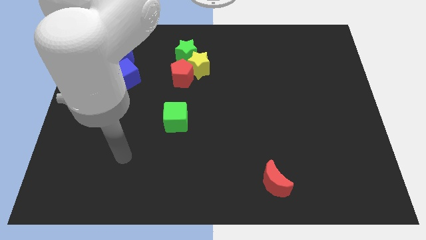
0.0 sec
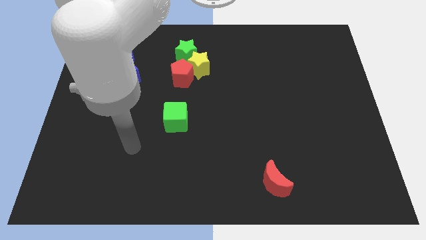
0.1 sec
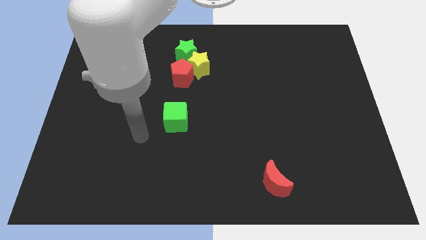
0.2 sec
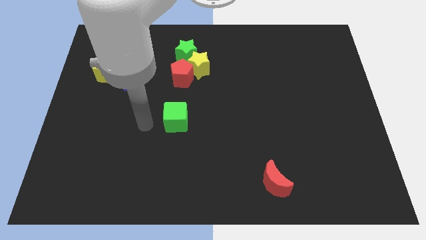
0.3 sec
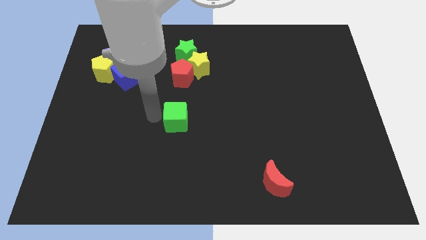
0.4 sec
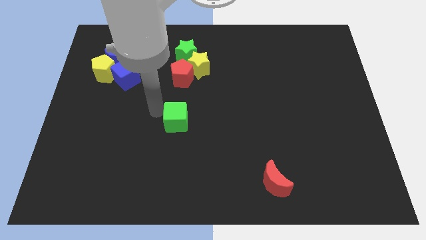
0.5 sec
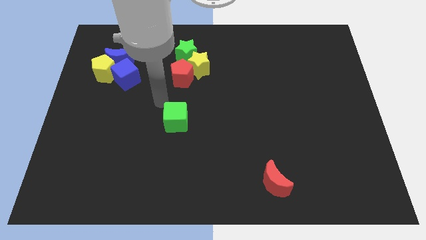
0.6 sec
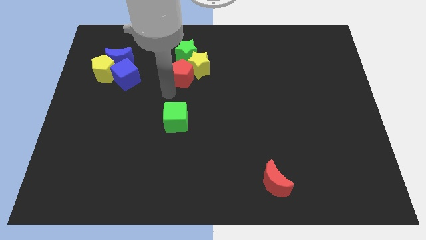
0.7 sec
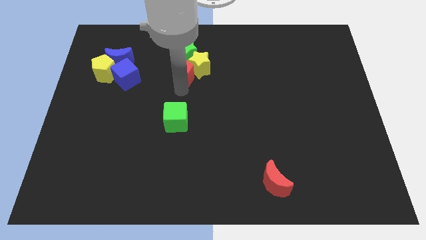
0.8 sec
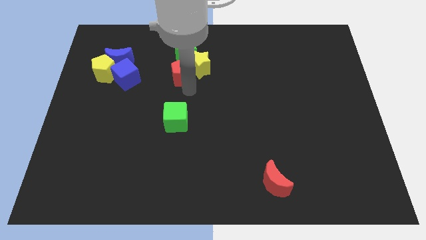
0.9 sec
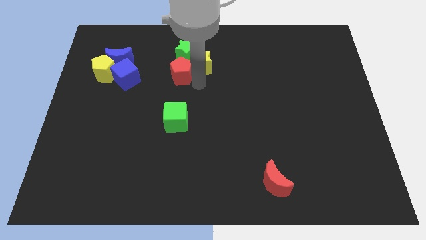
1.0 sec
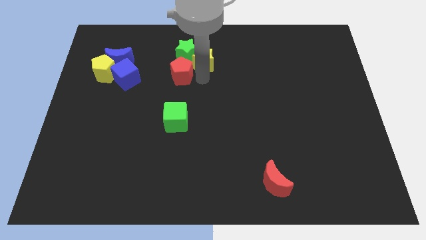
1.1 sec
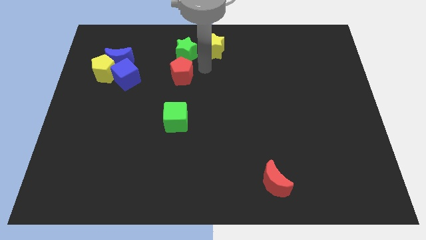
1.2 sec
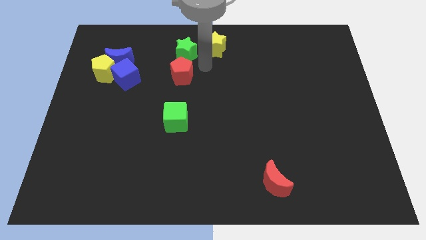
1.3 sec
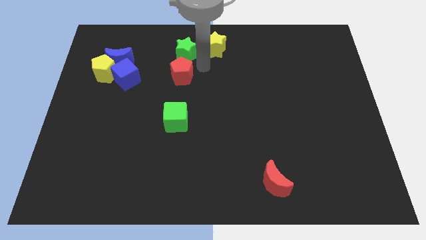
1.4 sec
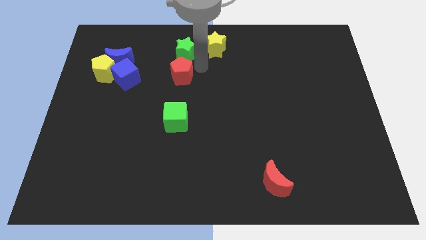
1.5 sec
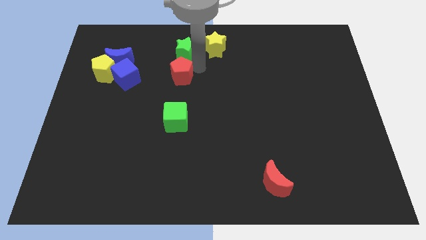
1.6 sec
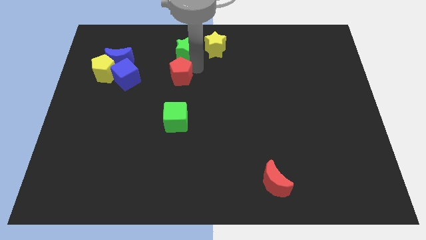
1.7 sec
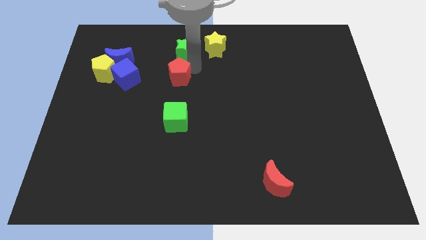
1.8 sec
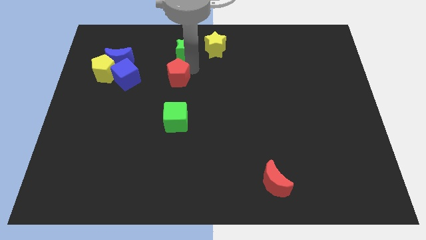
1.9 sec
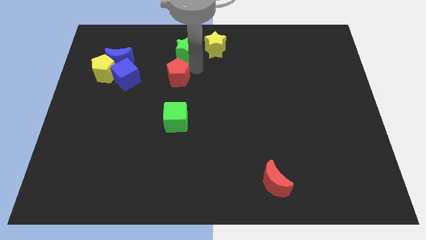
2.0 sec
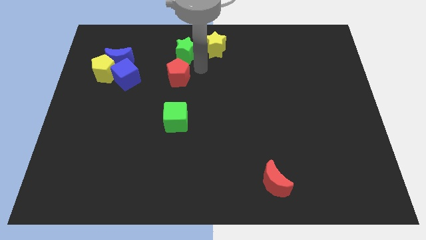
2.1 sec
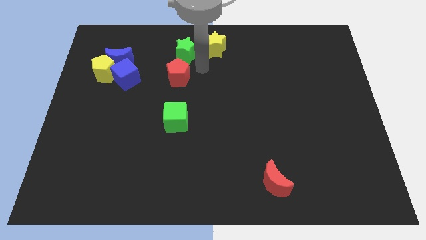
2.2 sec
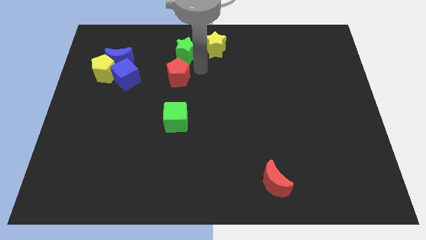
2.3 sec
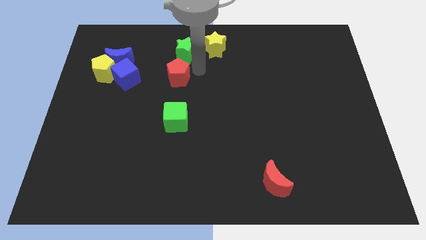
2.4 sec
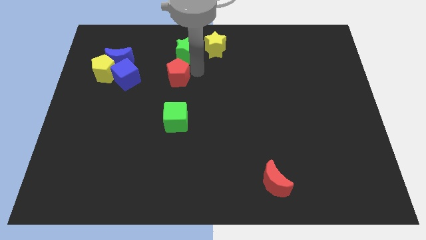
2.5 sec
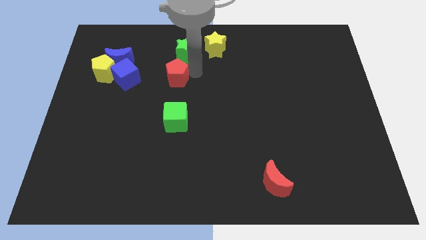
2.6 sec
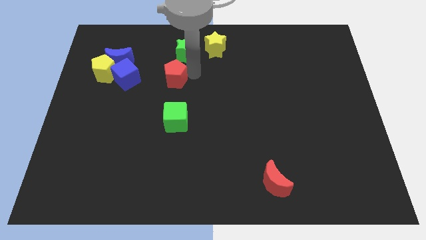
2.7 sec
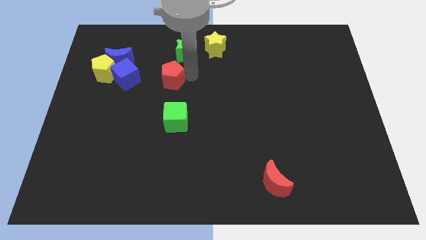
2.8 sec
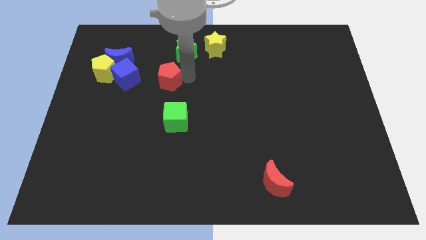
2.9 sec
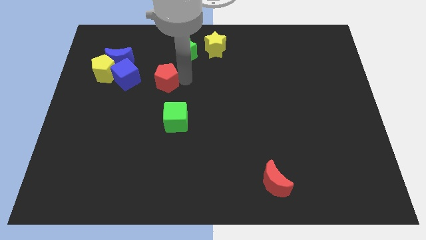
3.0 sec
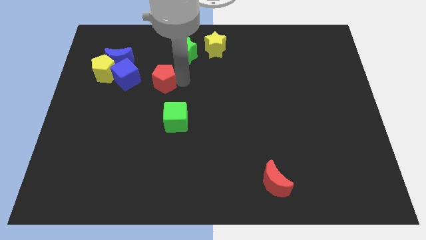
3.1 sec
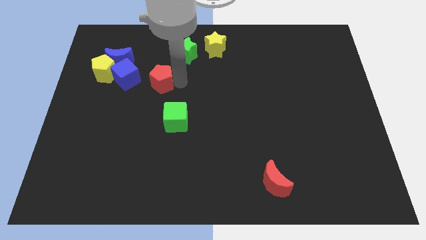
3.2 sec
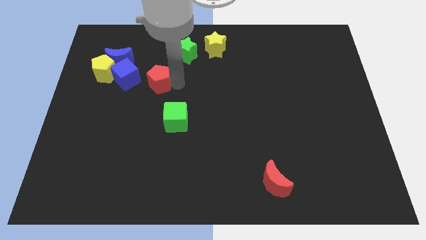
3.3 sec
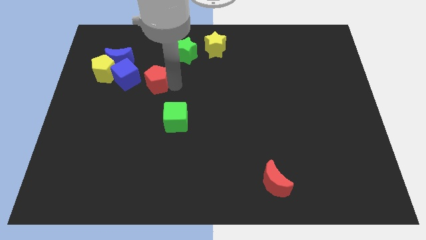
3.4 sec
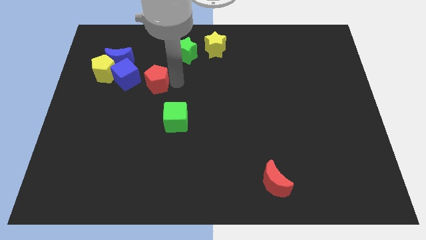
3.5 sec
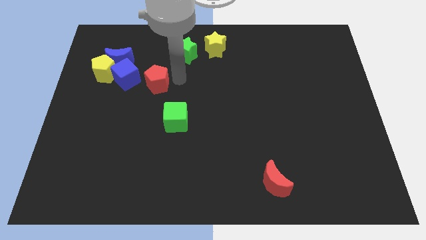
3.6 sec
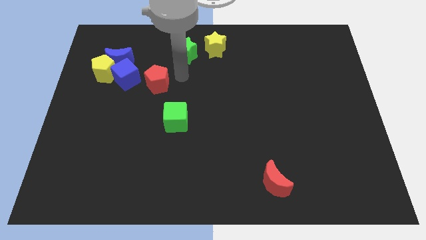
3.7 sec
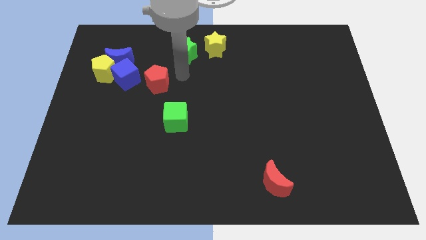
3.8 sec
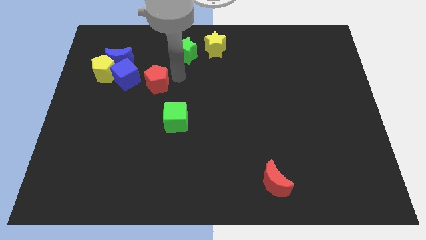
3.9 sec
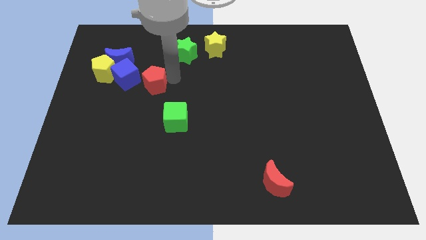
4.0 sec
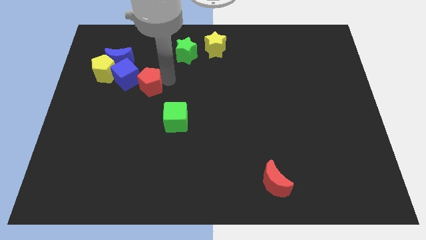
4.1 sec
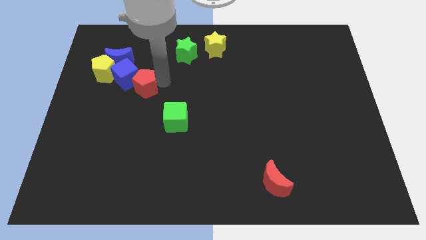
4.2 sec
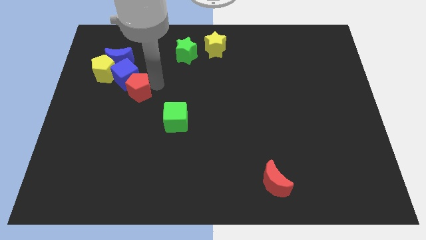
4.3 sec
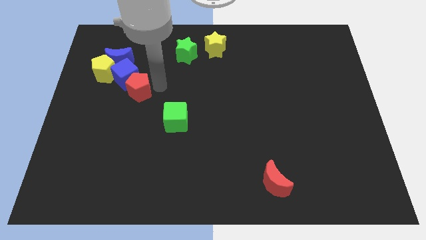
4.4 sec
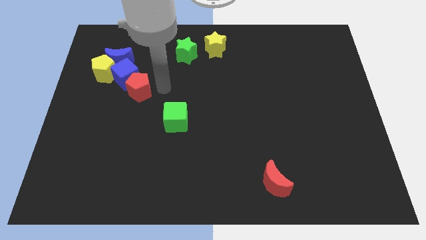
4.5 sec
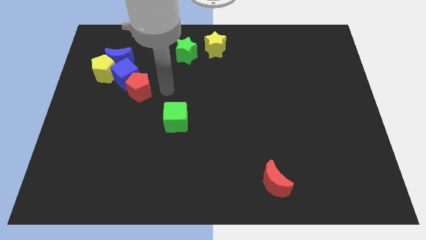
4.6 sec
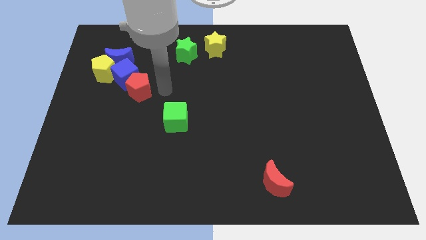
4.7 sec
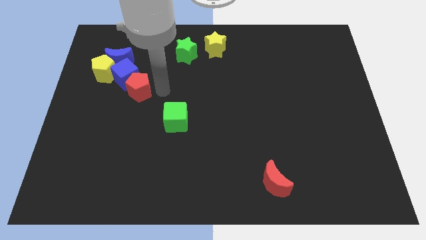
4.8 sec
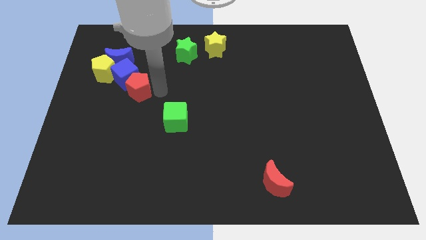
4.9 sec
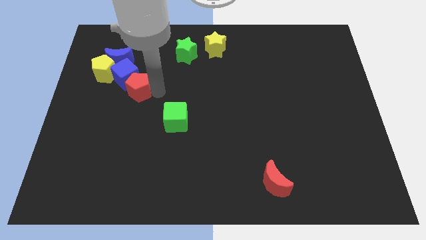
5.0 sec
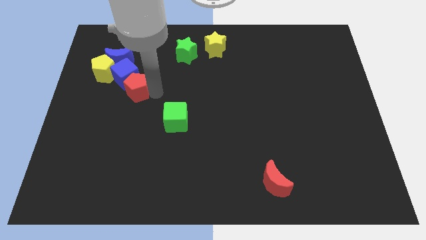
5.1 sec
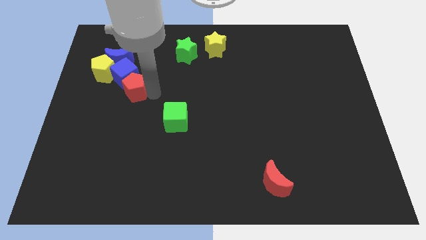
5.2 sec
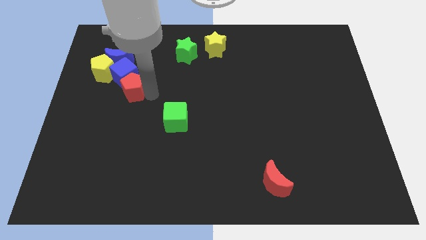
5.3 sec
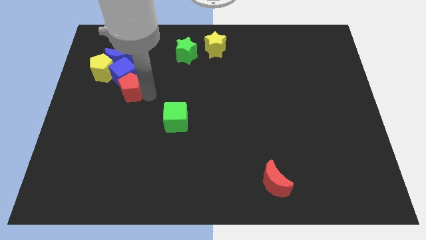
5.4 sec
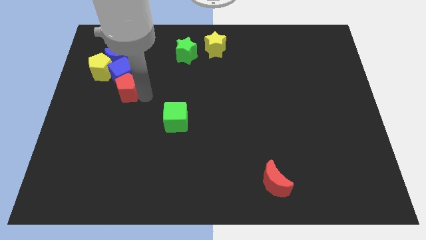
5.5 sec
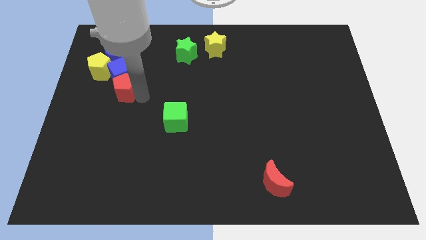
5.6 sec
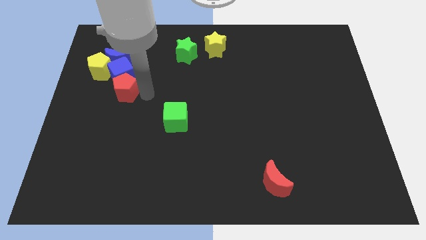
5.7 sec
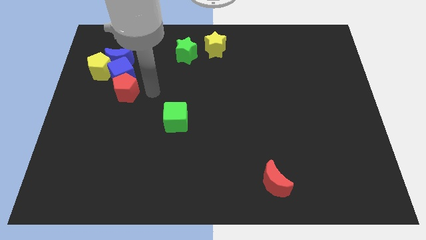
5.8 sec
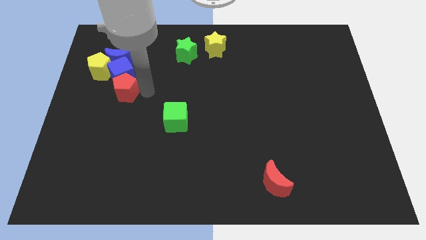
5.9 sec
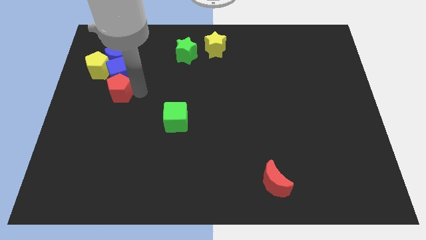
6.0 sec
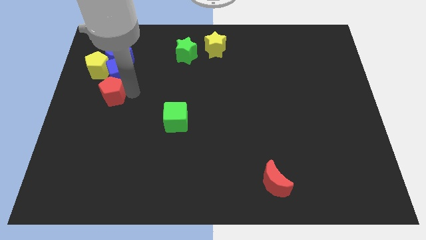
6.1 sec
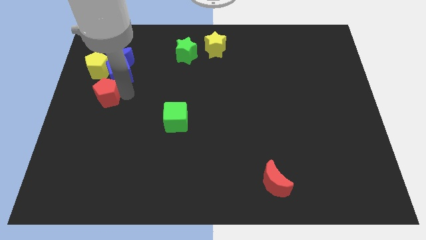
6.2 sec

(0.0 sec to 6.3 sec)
push the red pentagon to the center left

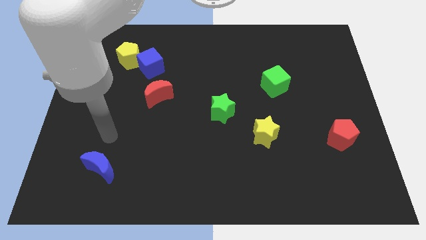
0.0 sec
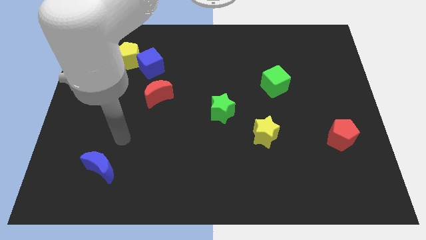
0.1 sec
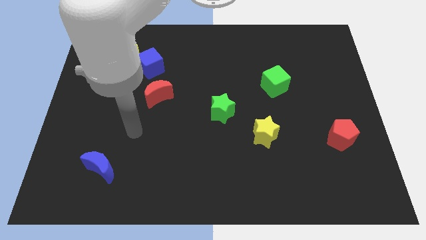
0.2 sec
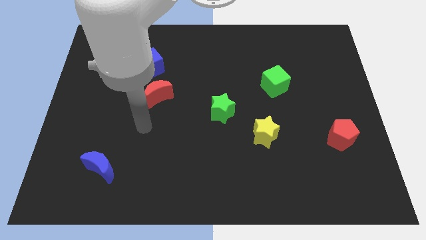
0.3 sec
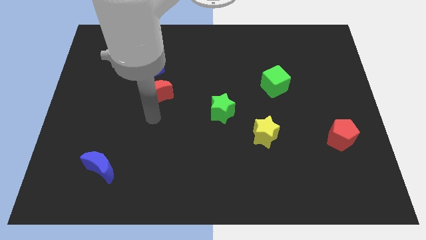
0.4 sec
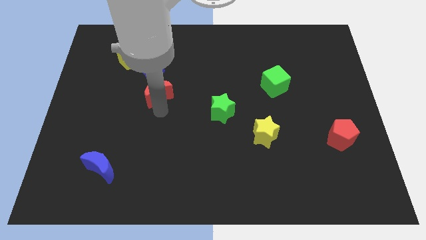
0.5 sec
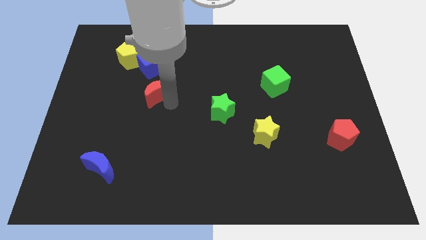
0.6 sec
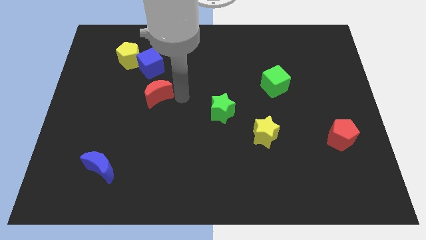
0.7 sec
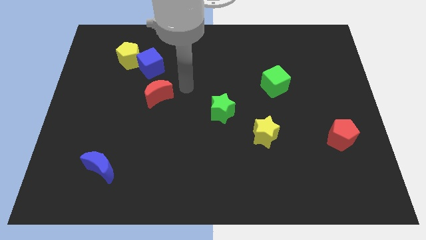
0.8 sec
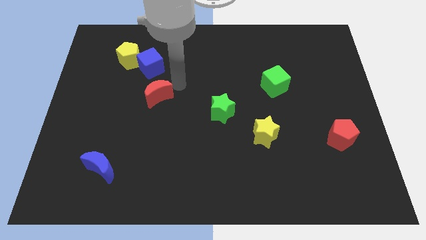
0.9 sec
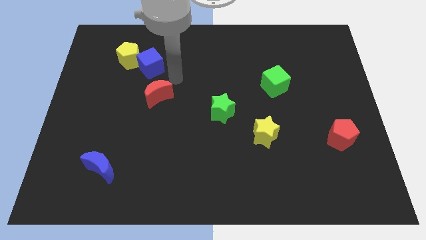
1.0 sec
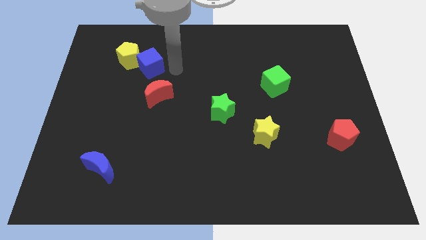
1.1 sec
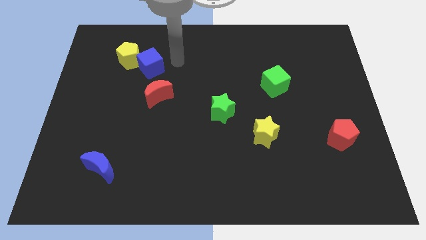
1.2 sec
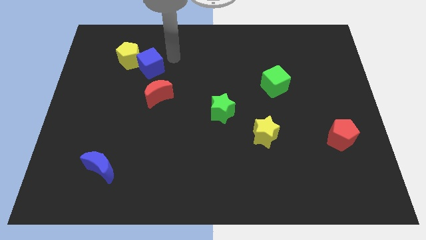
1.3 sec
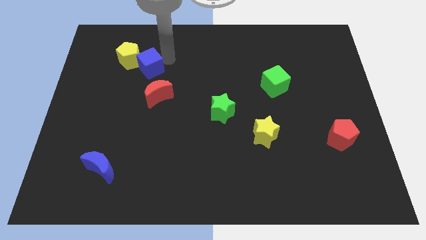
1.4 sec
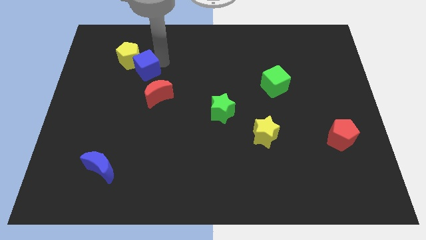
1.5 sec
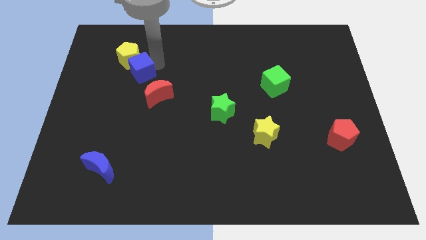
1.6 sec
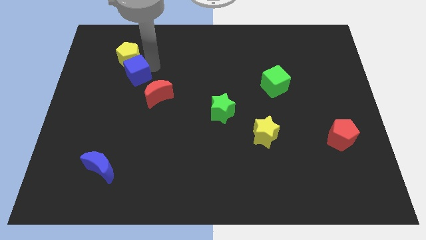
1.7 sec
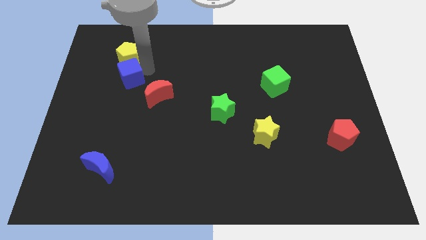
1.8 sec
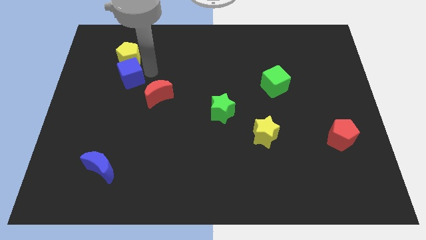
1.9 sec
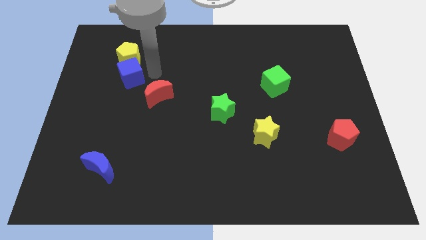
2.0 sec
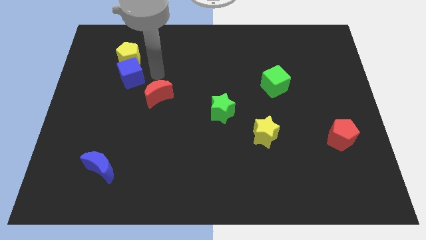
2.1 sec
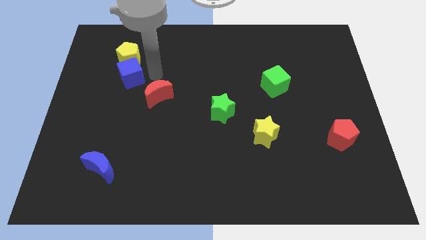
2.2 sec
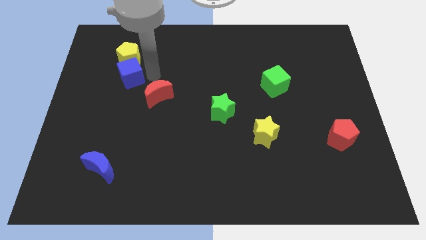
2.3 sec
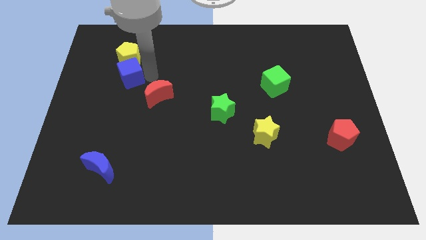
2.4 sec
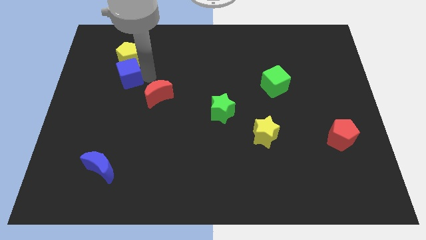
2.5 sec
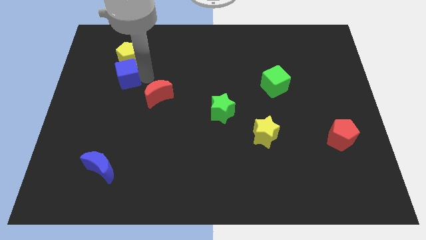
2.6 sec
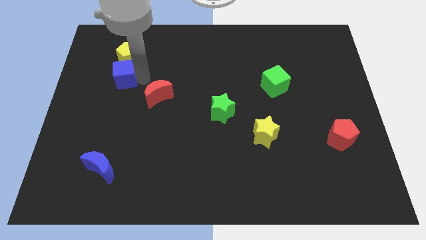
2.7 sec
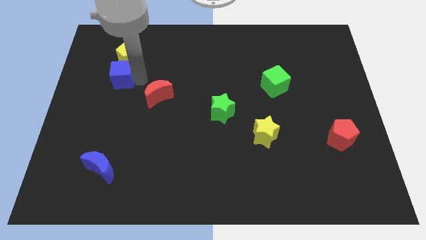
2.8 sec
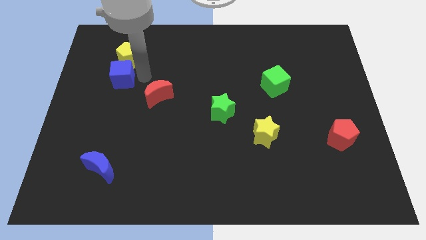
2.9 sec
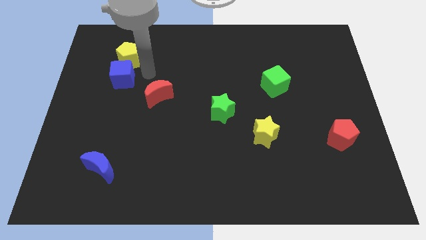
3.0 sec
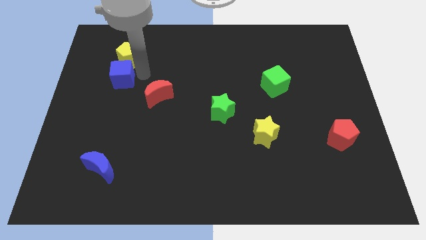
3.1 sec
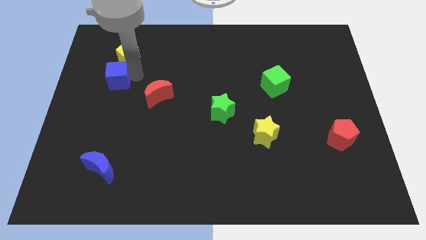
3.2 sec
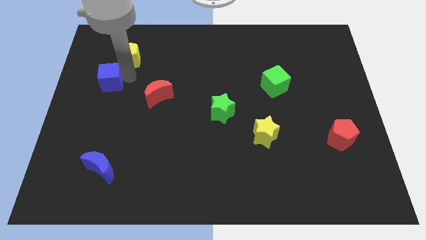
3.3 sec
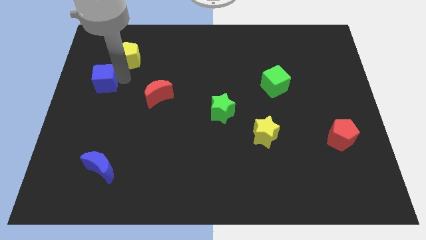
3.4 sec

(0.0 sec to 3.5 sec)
push the blue cube to the center left
